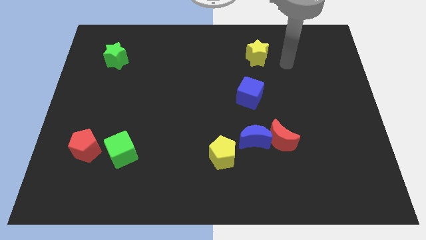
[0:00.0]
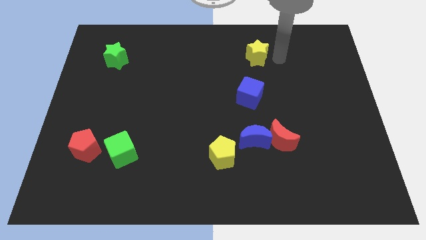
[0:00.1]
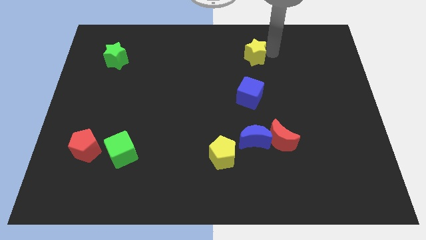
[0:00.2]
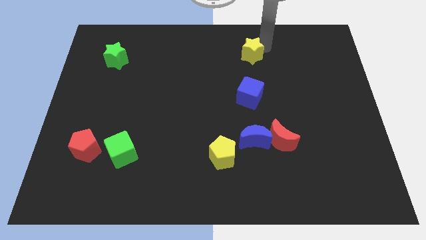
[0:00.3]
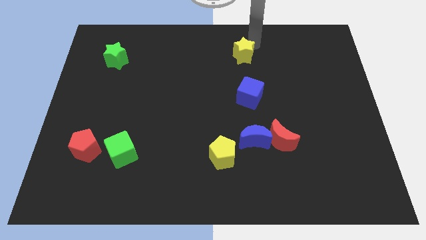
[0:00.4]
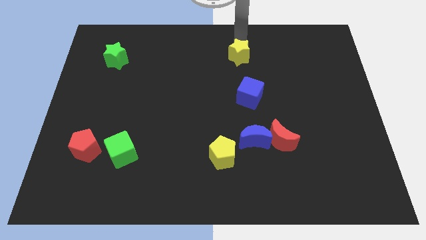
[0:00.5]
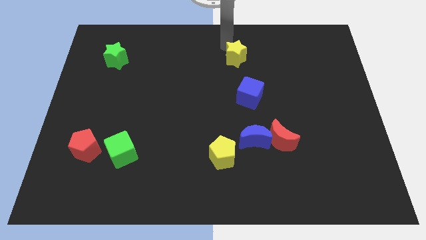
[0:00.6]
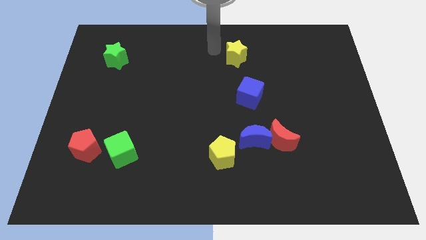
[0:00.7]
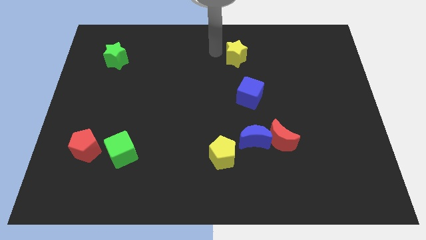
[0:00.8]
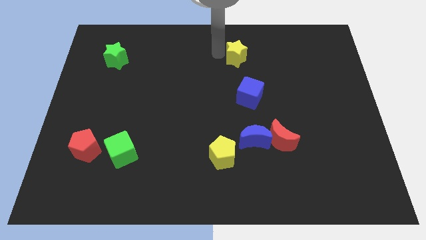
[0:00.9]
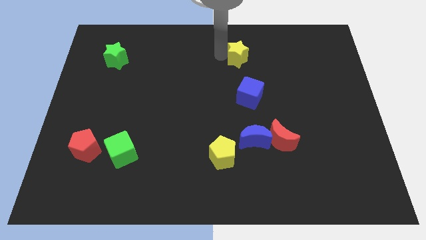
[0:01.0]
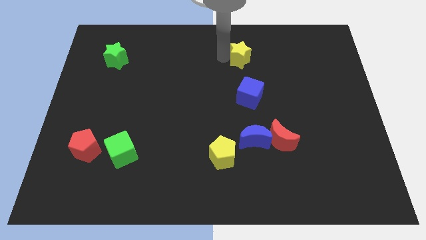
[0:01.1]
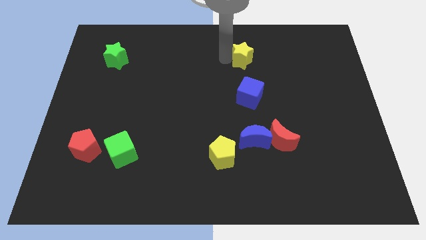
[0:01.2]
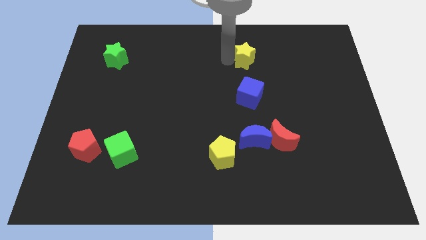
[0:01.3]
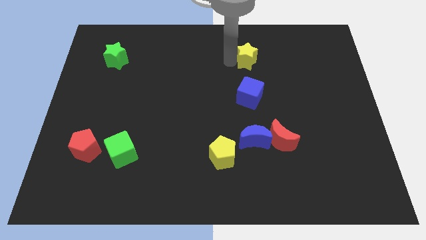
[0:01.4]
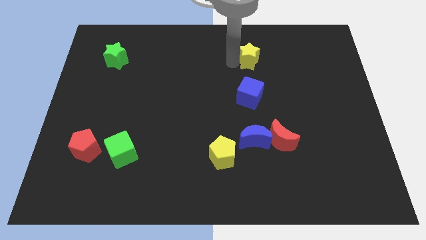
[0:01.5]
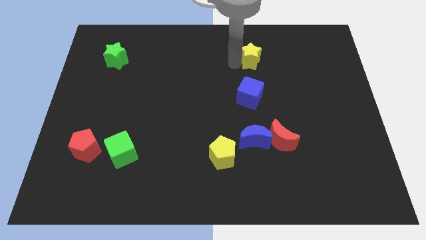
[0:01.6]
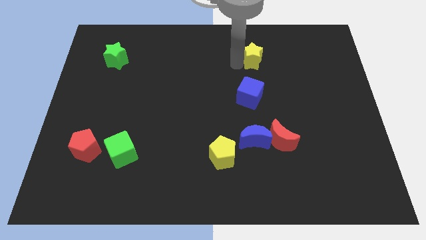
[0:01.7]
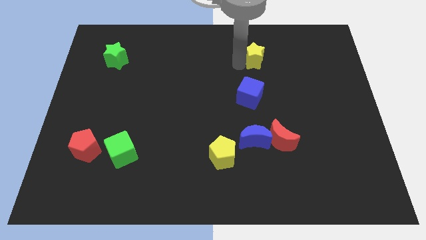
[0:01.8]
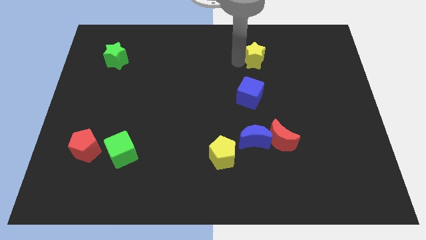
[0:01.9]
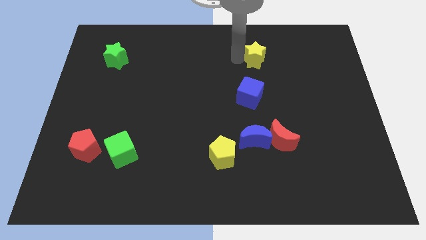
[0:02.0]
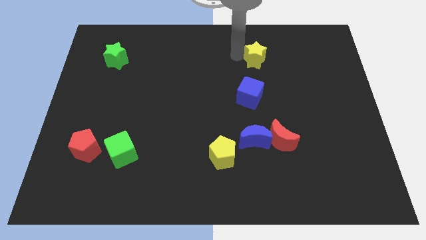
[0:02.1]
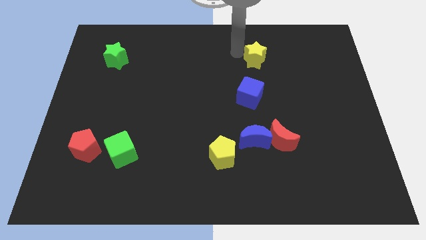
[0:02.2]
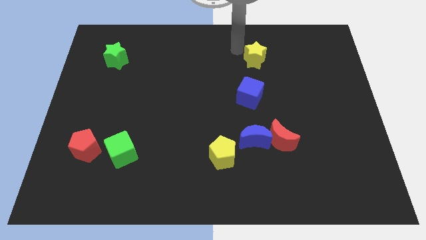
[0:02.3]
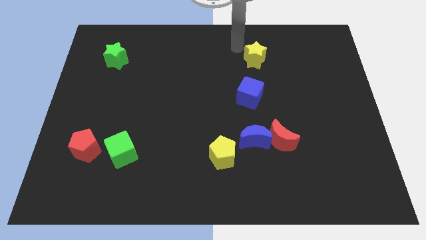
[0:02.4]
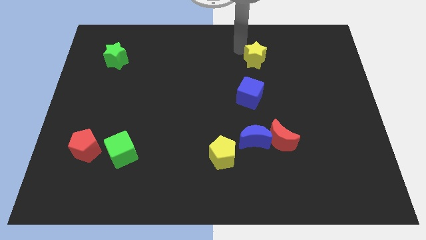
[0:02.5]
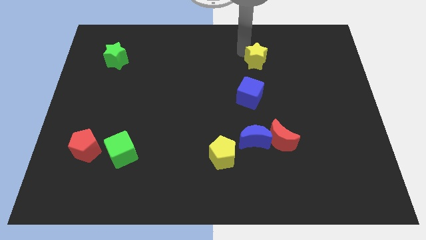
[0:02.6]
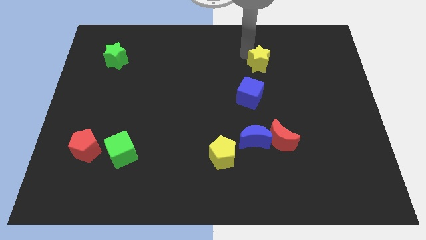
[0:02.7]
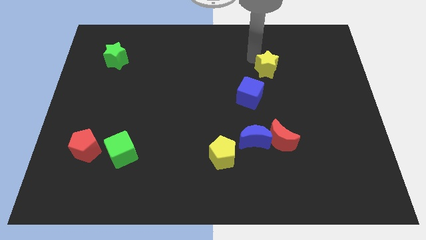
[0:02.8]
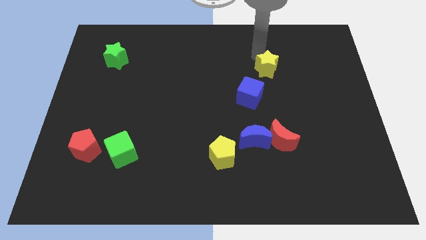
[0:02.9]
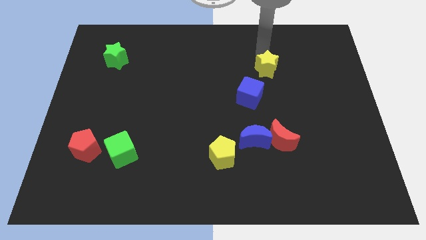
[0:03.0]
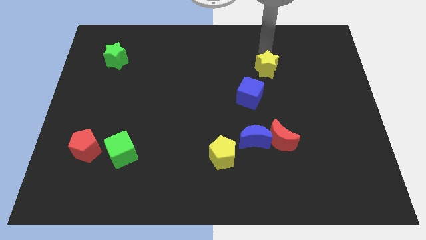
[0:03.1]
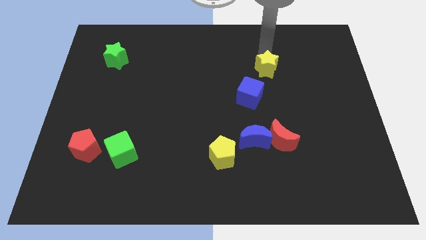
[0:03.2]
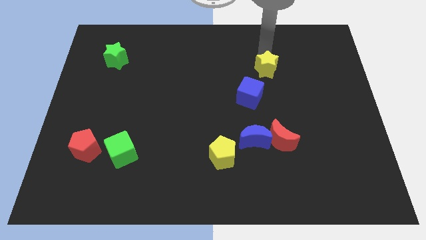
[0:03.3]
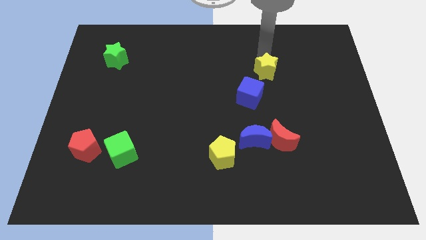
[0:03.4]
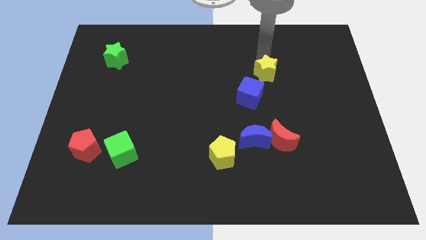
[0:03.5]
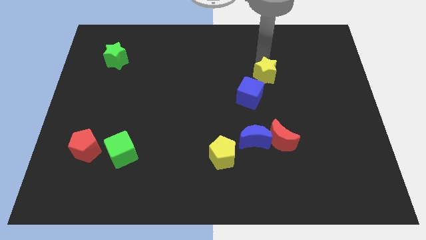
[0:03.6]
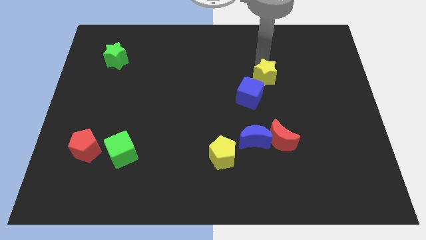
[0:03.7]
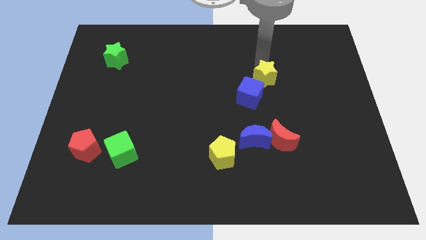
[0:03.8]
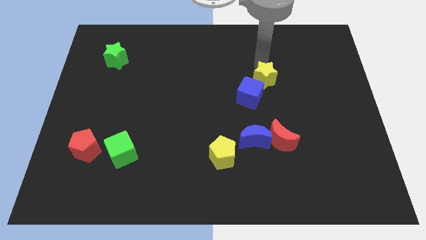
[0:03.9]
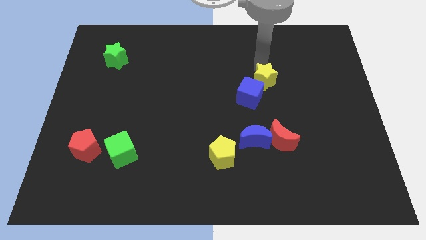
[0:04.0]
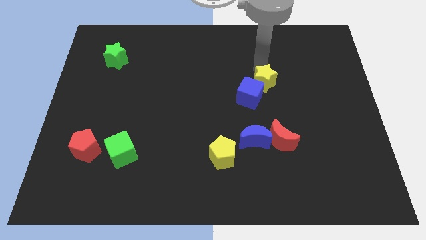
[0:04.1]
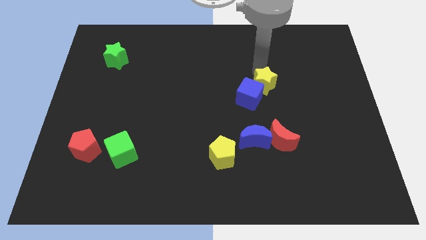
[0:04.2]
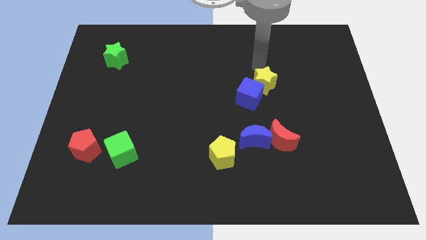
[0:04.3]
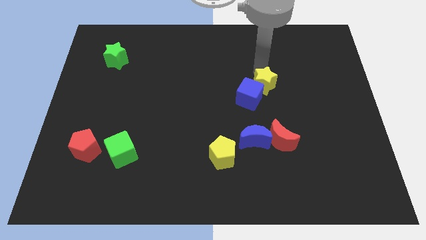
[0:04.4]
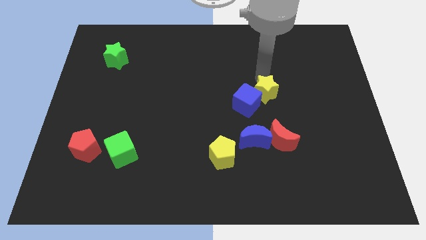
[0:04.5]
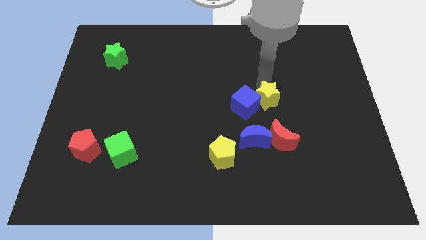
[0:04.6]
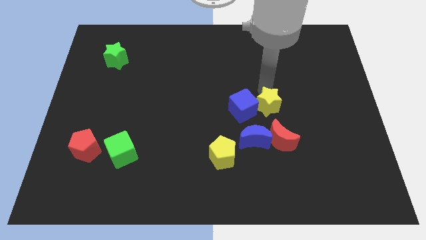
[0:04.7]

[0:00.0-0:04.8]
slide the yellow star to the bottom right of the blue cube

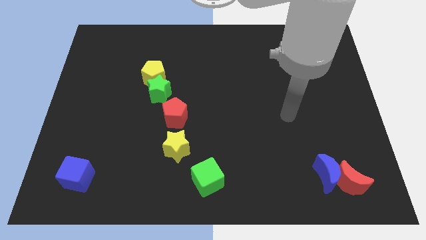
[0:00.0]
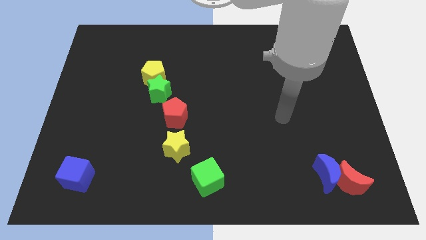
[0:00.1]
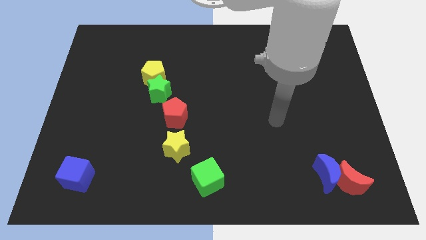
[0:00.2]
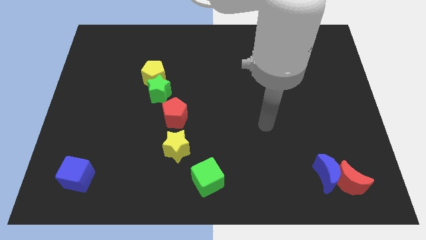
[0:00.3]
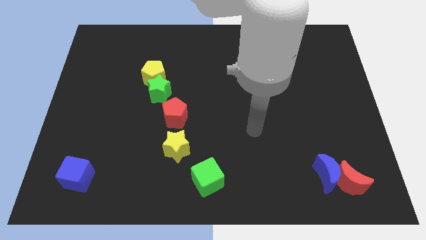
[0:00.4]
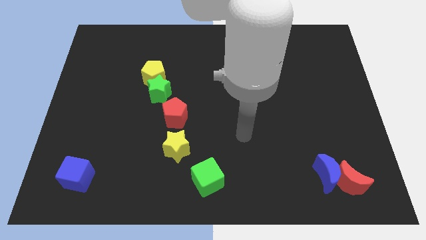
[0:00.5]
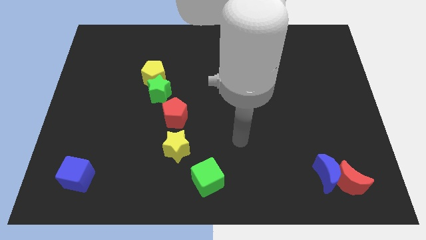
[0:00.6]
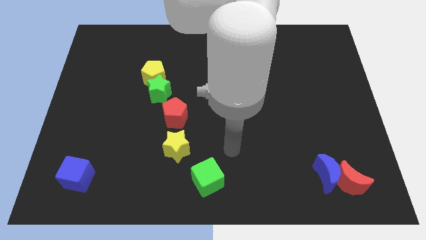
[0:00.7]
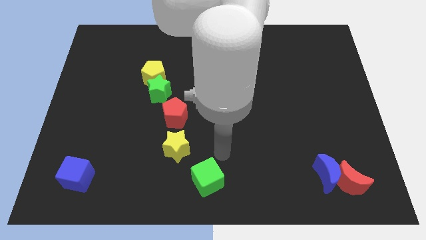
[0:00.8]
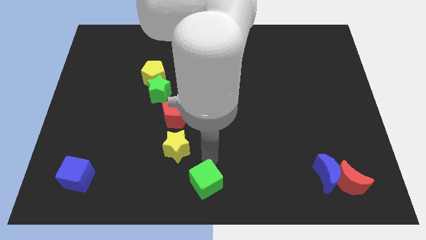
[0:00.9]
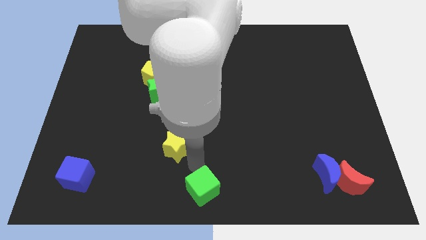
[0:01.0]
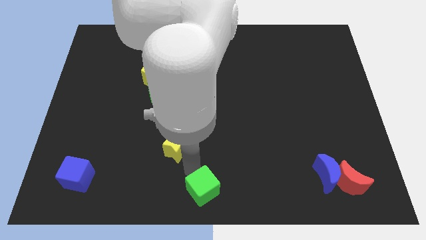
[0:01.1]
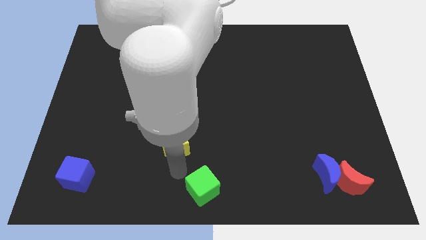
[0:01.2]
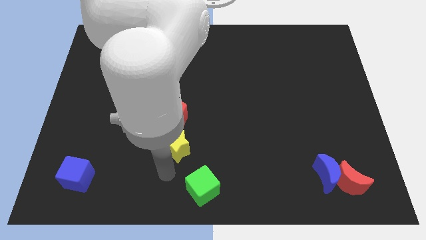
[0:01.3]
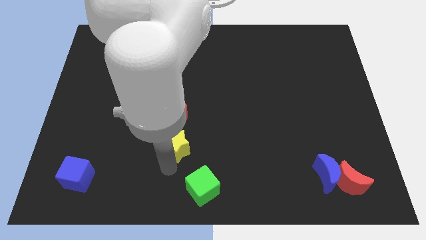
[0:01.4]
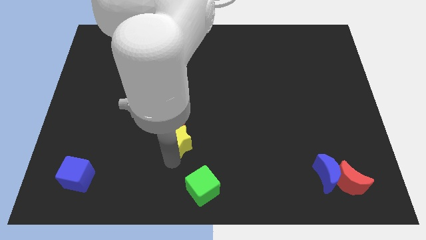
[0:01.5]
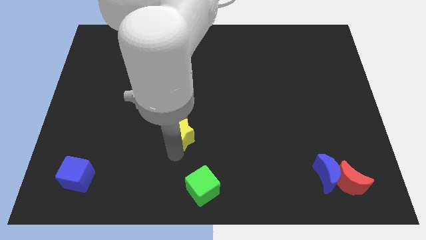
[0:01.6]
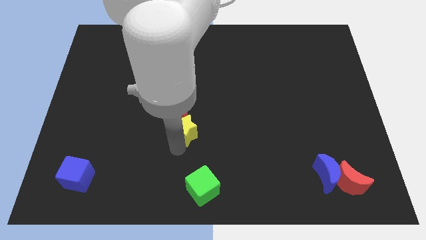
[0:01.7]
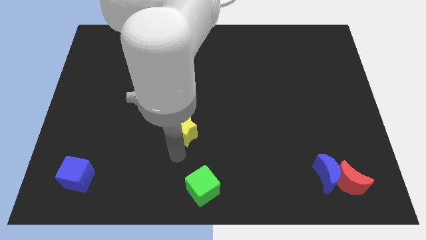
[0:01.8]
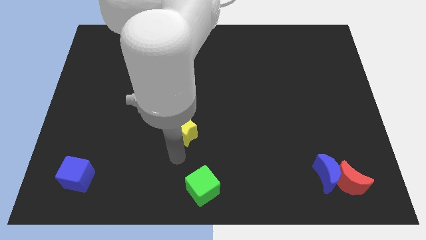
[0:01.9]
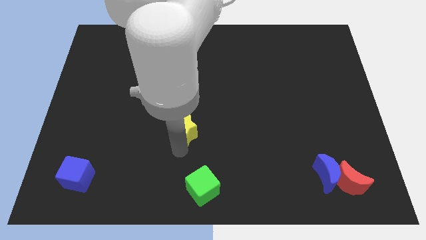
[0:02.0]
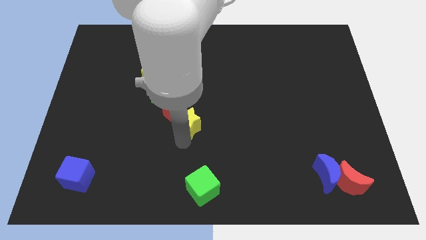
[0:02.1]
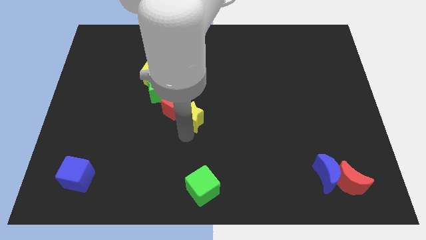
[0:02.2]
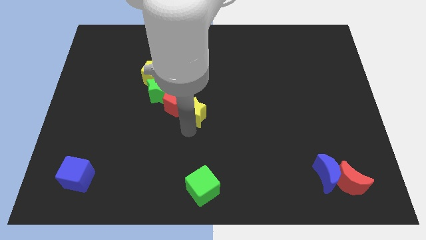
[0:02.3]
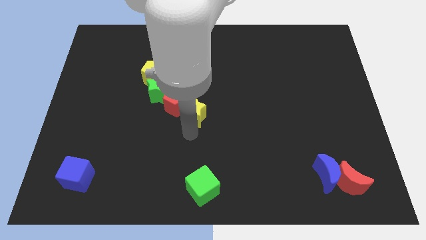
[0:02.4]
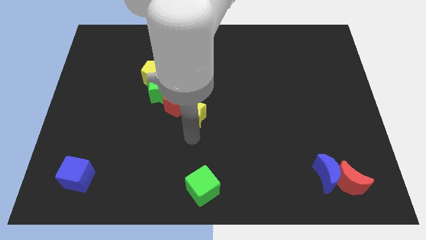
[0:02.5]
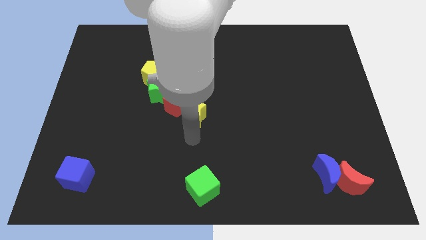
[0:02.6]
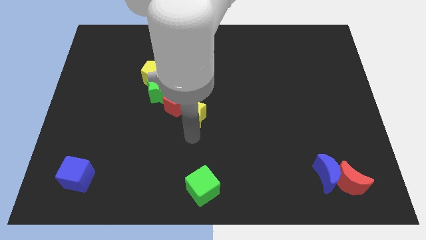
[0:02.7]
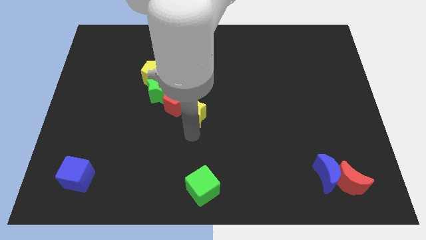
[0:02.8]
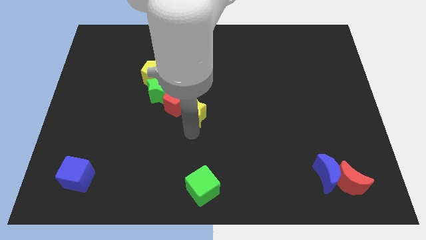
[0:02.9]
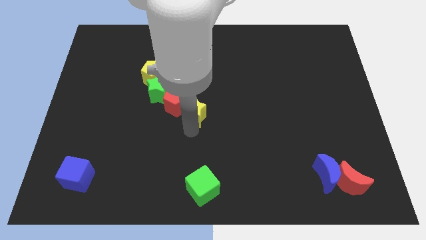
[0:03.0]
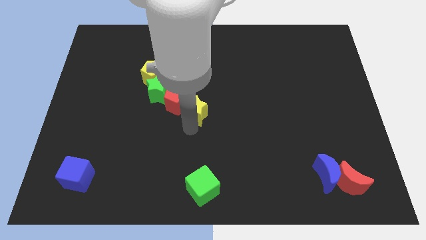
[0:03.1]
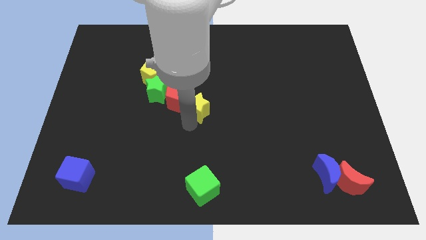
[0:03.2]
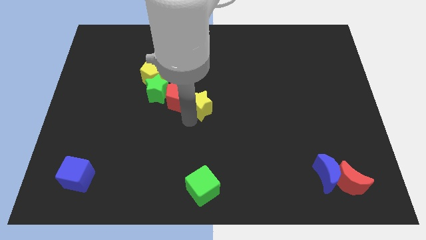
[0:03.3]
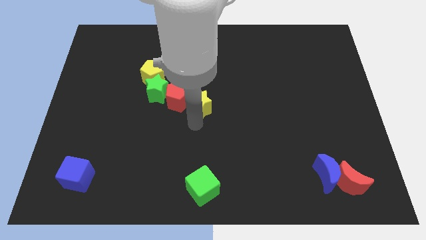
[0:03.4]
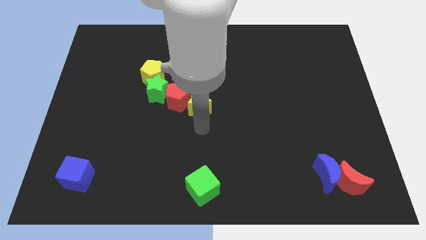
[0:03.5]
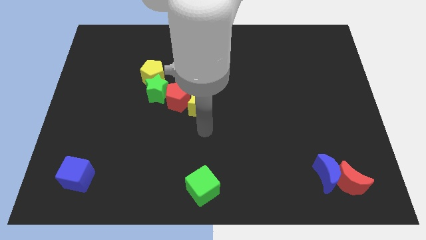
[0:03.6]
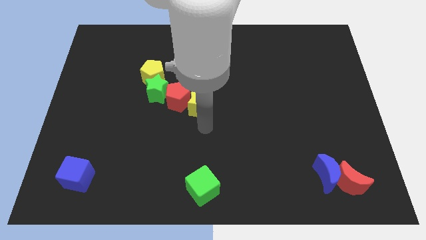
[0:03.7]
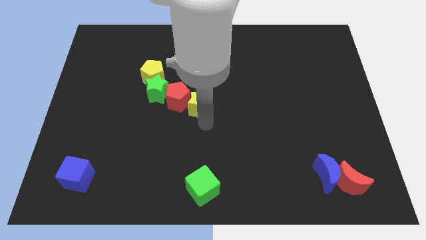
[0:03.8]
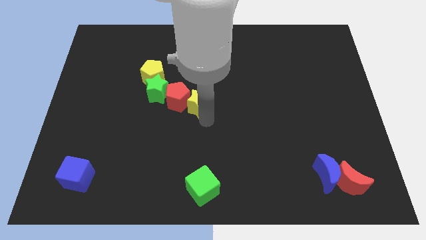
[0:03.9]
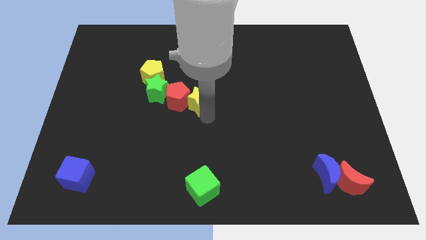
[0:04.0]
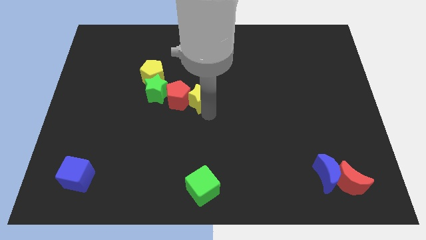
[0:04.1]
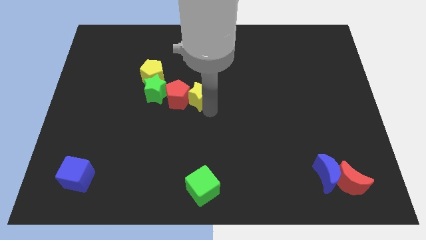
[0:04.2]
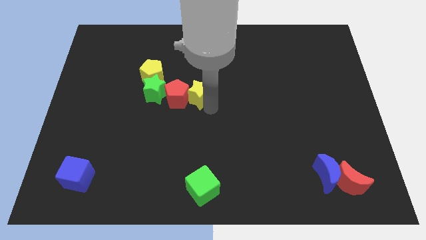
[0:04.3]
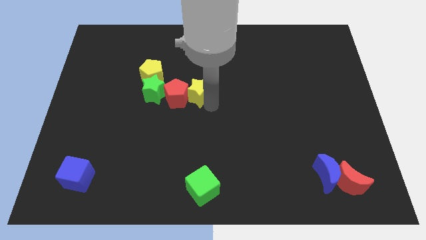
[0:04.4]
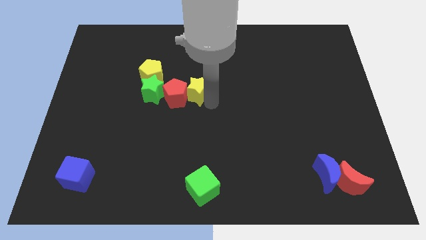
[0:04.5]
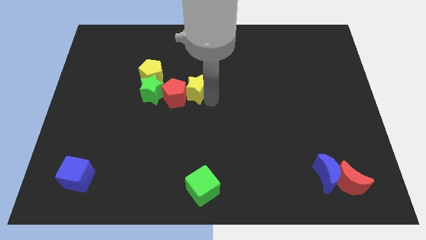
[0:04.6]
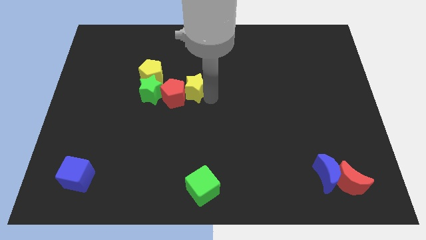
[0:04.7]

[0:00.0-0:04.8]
push the yellow star just right of the yellow pentagon
